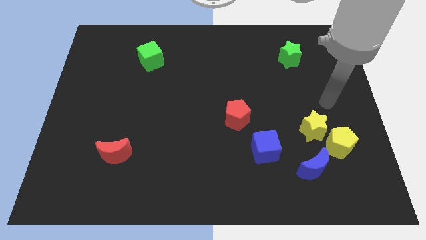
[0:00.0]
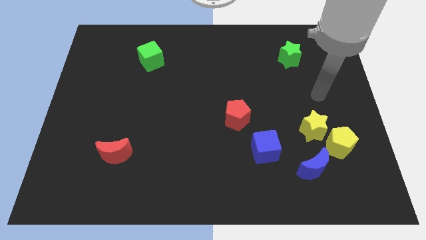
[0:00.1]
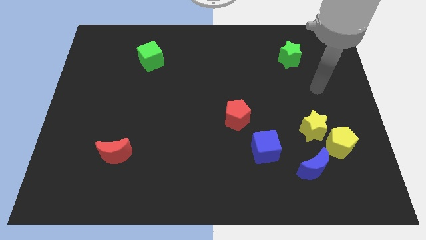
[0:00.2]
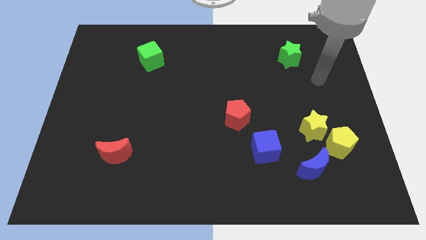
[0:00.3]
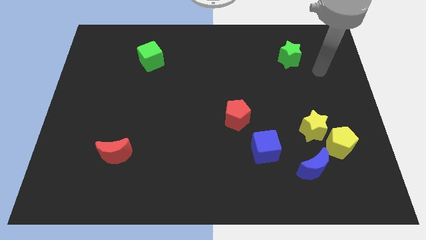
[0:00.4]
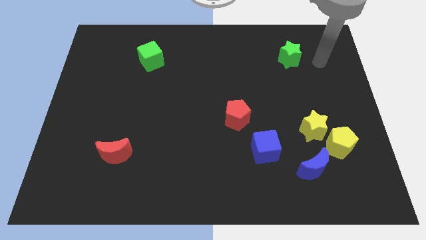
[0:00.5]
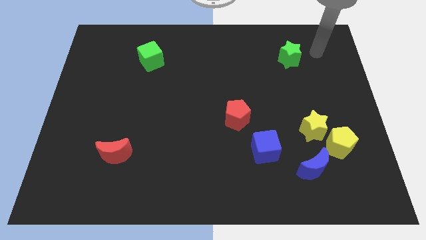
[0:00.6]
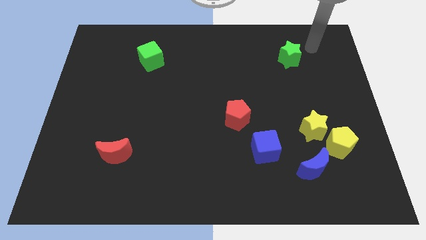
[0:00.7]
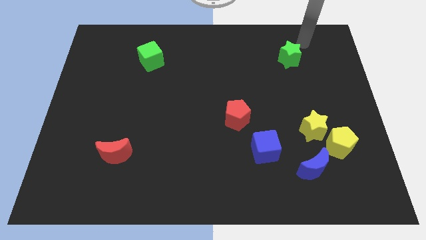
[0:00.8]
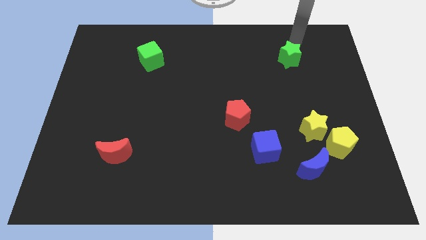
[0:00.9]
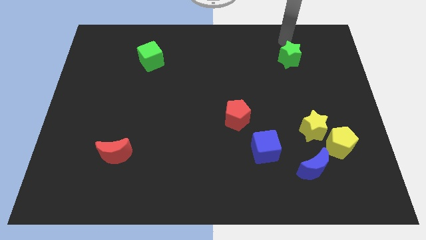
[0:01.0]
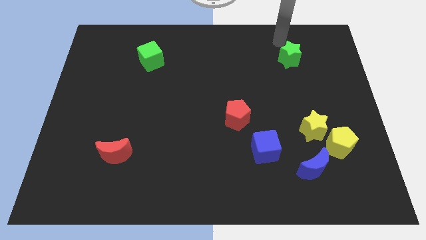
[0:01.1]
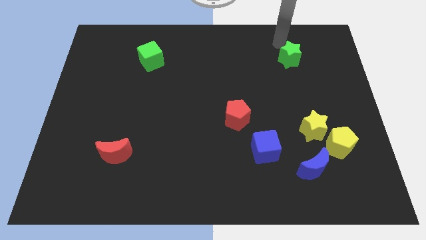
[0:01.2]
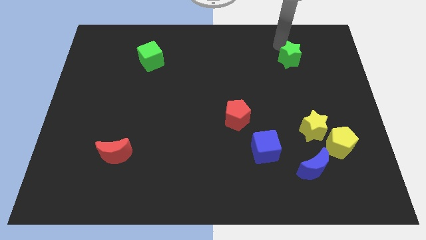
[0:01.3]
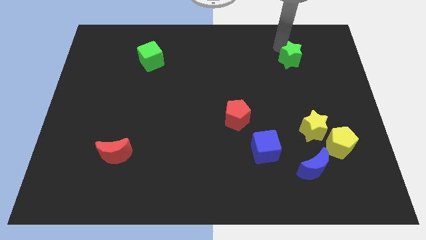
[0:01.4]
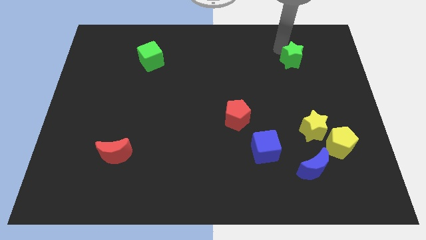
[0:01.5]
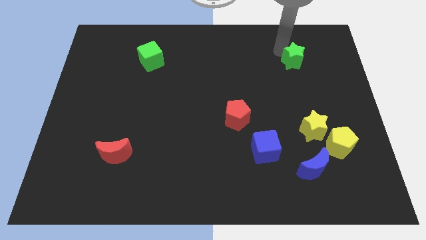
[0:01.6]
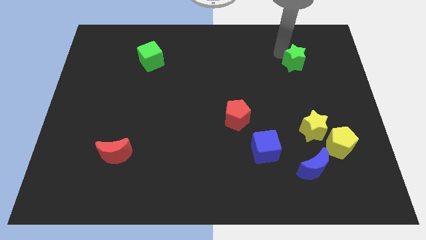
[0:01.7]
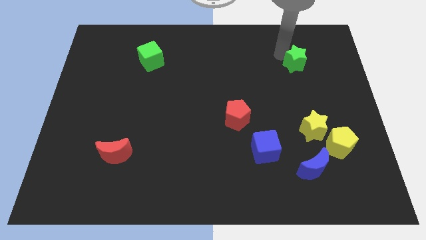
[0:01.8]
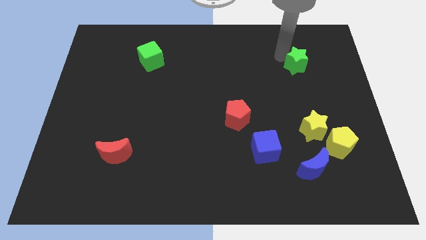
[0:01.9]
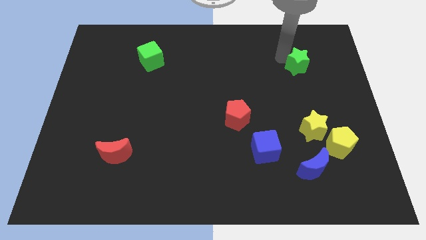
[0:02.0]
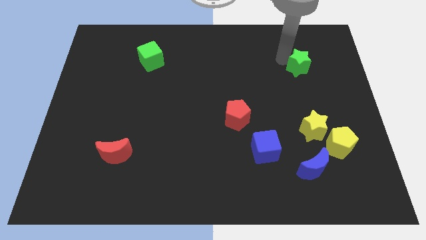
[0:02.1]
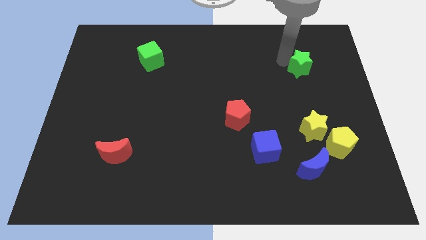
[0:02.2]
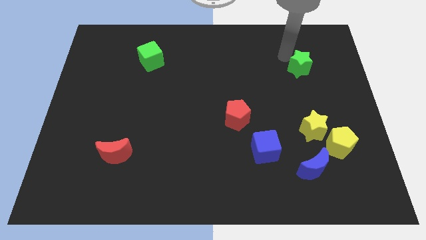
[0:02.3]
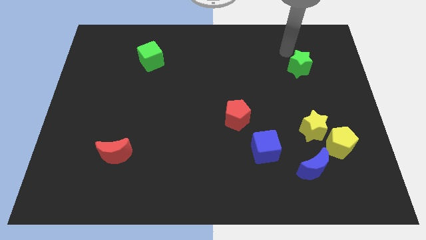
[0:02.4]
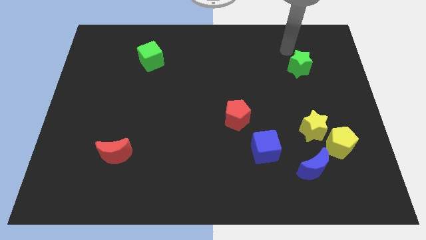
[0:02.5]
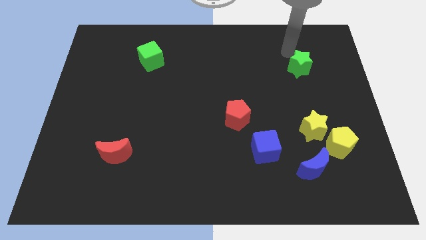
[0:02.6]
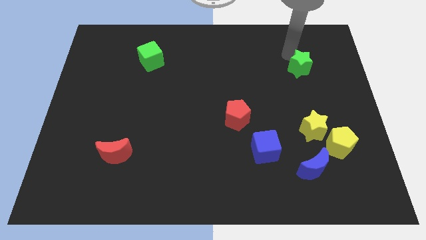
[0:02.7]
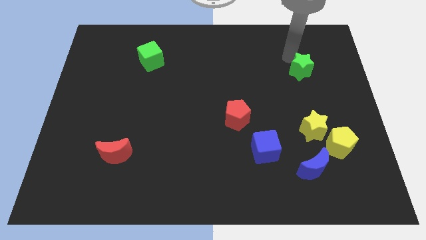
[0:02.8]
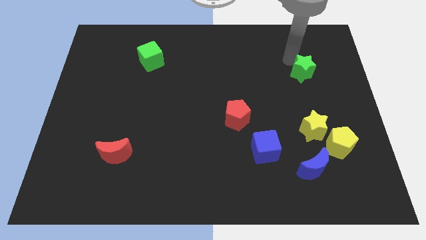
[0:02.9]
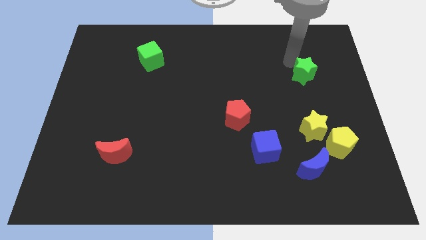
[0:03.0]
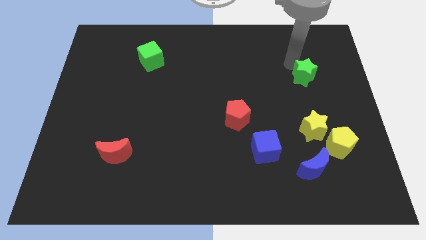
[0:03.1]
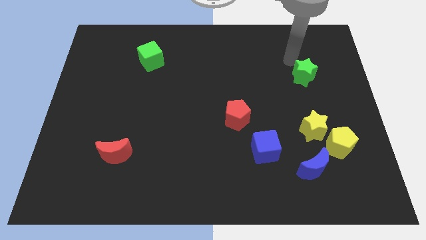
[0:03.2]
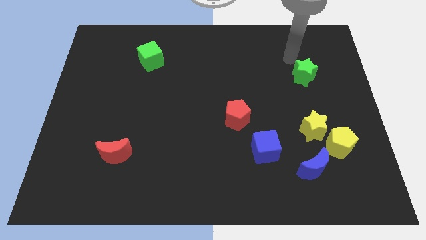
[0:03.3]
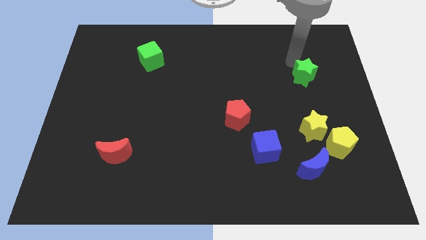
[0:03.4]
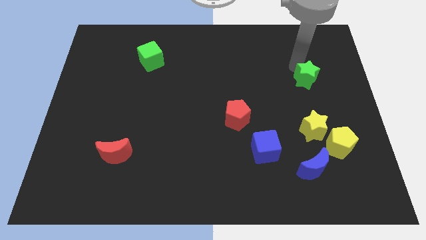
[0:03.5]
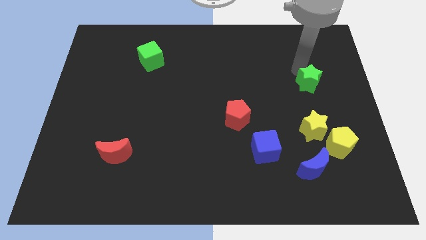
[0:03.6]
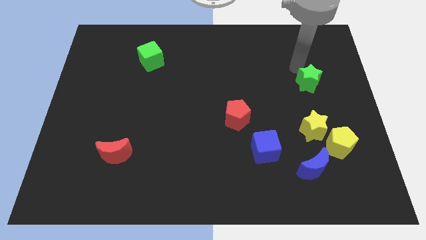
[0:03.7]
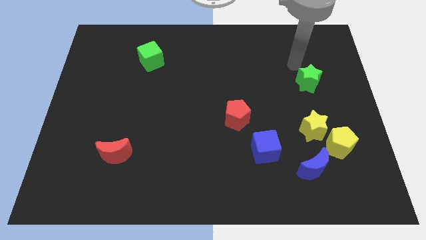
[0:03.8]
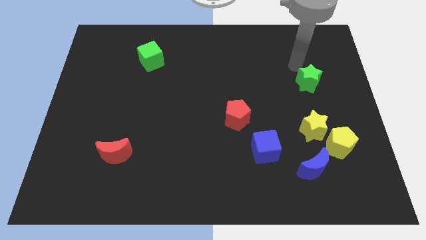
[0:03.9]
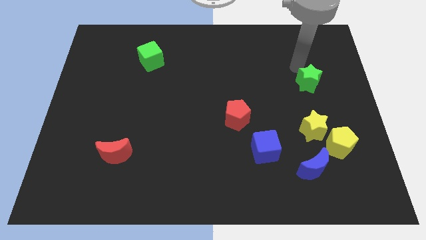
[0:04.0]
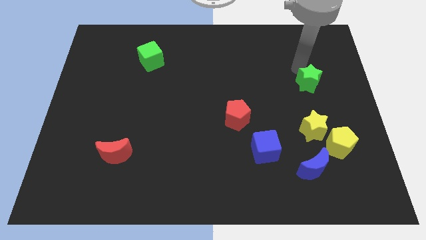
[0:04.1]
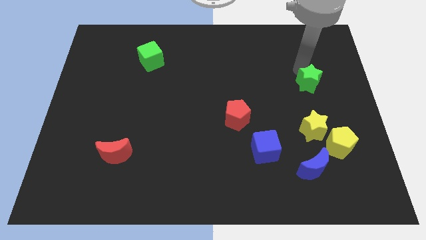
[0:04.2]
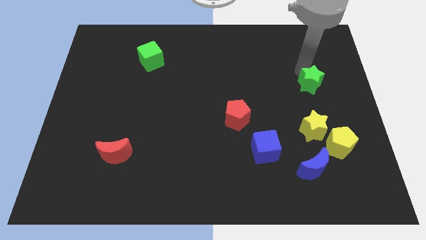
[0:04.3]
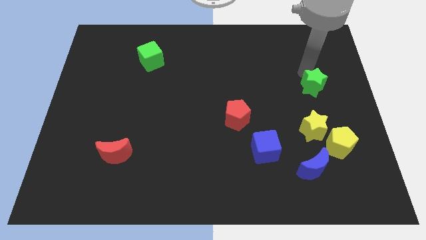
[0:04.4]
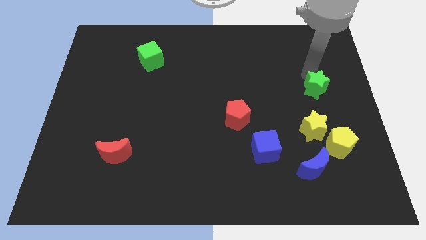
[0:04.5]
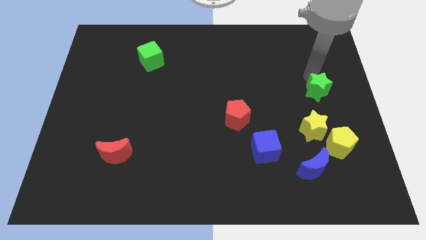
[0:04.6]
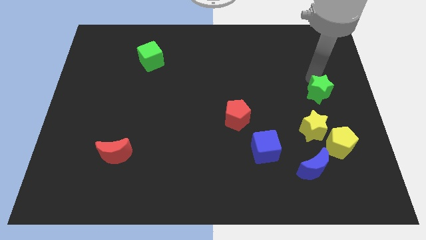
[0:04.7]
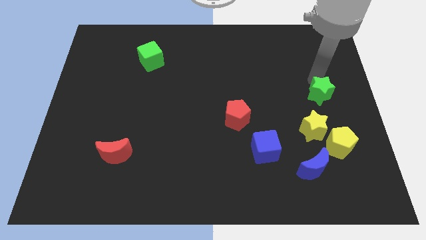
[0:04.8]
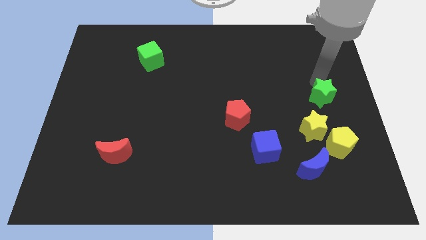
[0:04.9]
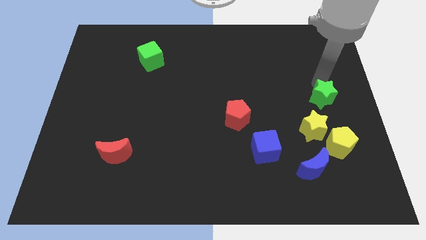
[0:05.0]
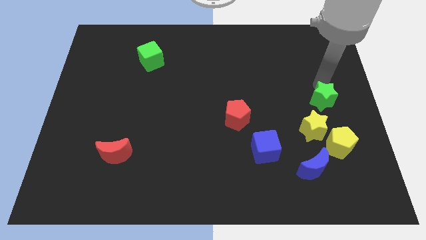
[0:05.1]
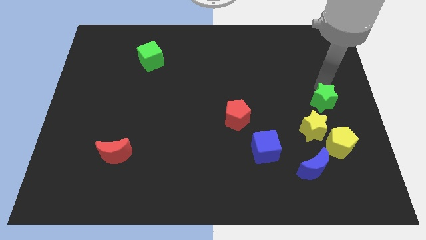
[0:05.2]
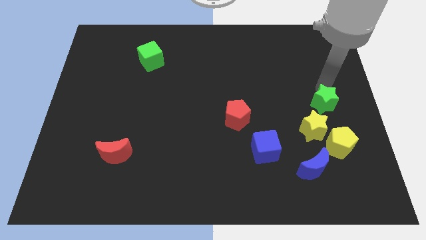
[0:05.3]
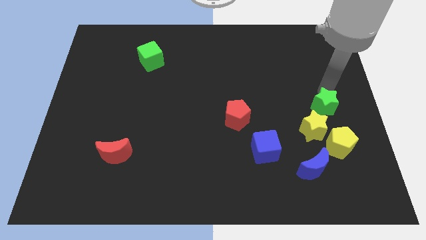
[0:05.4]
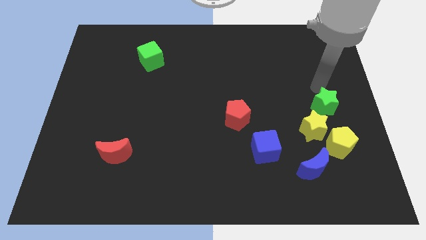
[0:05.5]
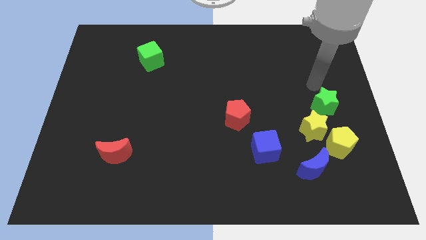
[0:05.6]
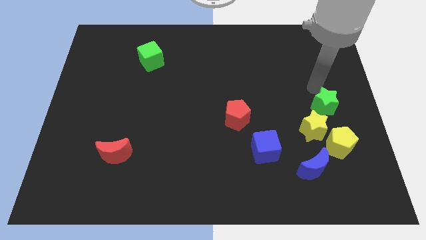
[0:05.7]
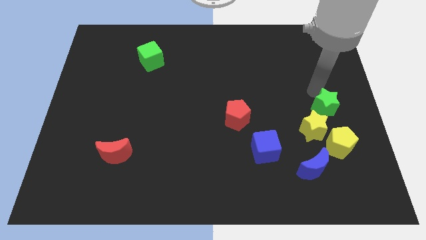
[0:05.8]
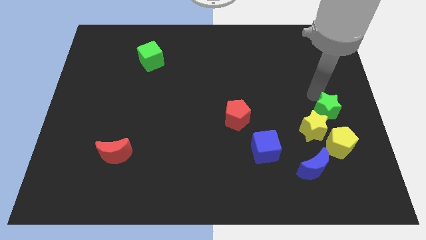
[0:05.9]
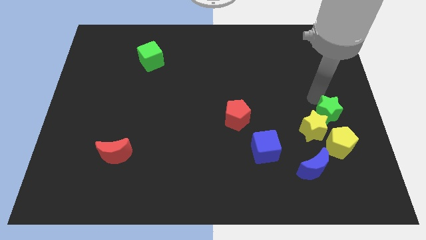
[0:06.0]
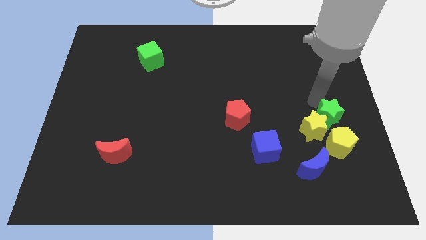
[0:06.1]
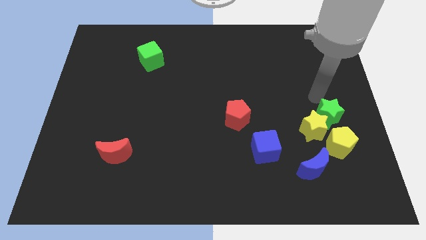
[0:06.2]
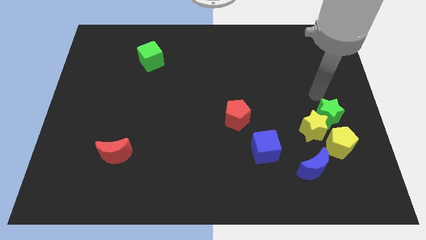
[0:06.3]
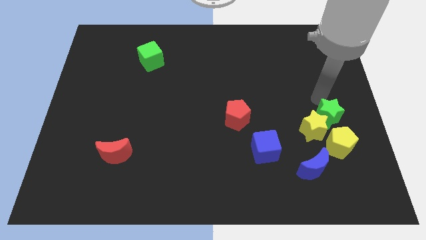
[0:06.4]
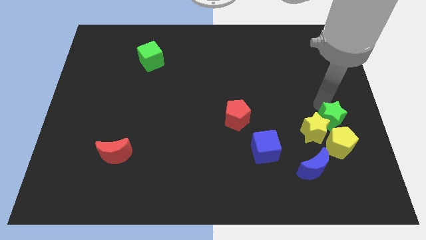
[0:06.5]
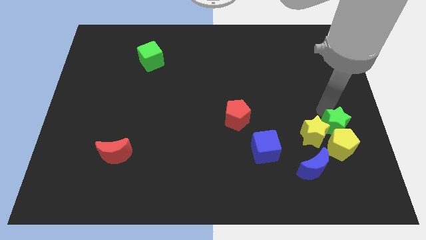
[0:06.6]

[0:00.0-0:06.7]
push the green star close to the yellow pentagon

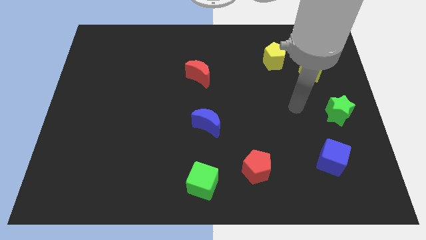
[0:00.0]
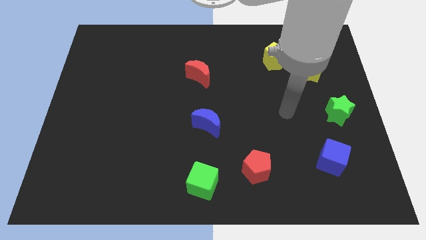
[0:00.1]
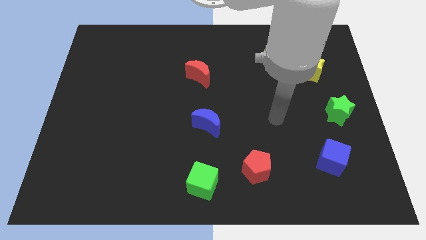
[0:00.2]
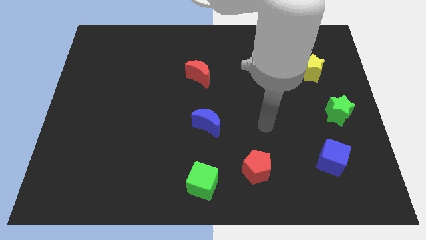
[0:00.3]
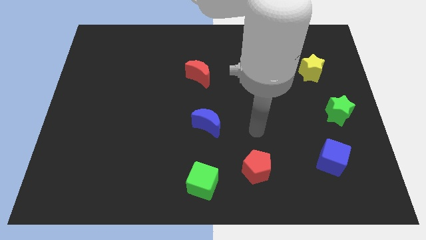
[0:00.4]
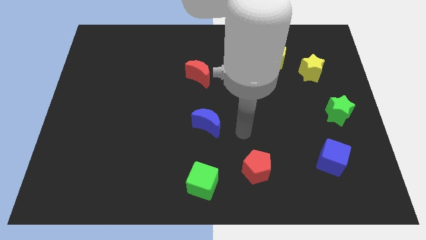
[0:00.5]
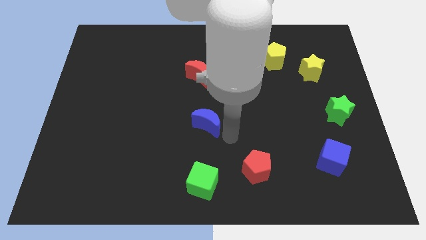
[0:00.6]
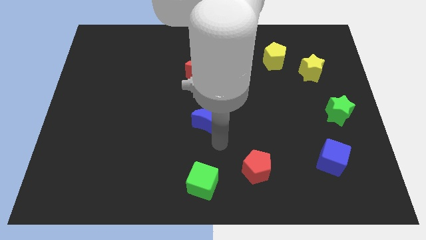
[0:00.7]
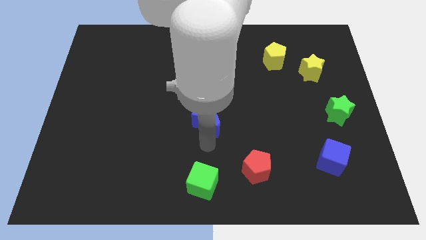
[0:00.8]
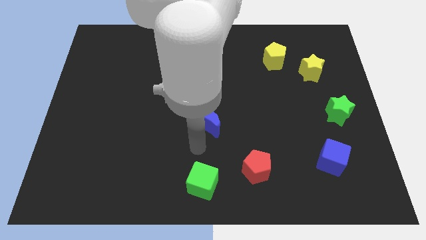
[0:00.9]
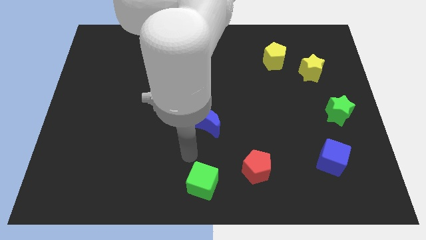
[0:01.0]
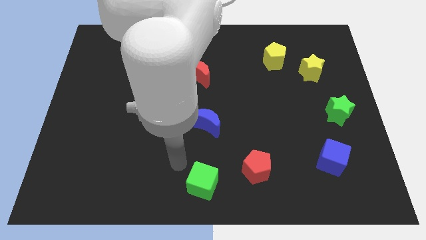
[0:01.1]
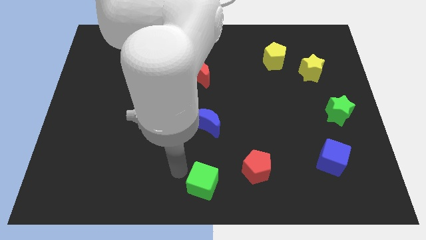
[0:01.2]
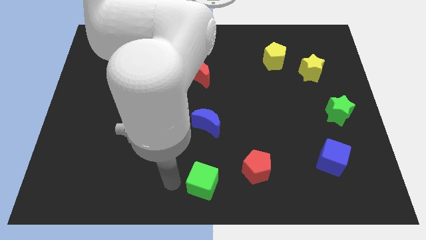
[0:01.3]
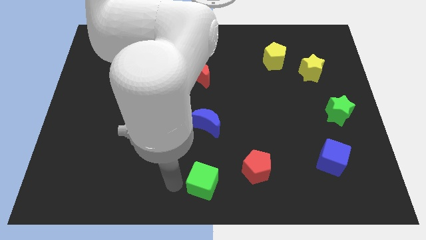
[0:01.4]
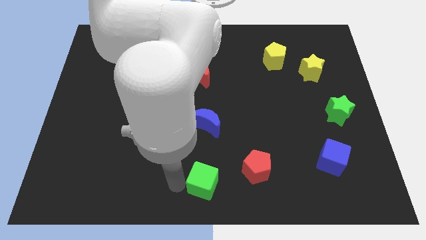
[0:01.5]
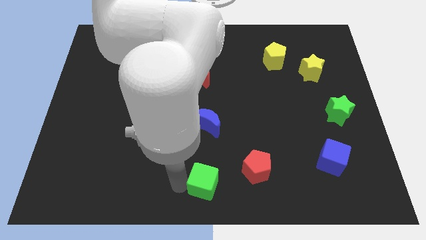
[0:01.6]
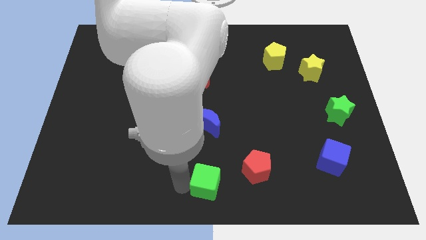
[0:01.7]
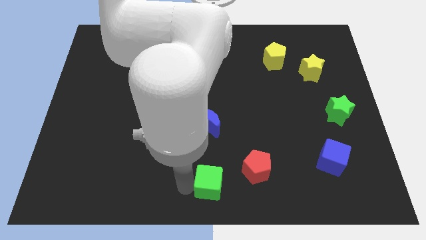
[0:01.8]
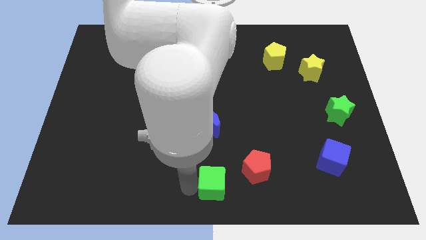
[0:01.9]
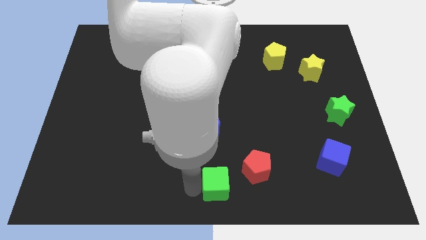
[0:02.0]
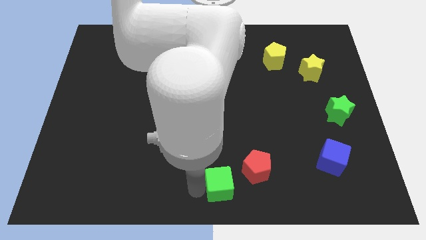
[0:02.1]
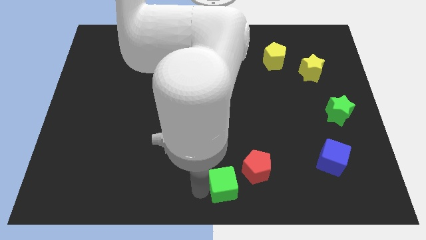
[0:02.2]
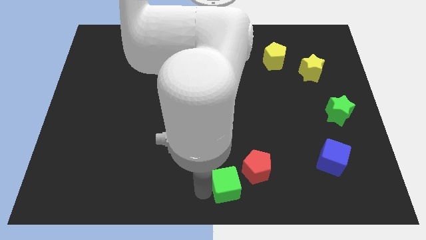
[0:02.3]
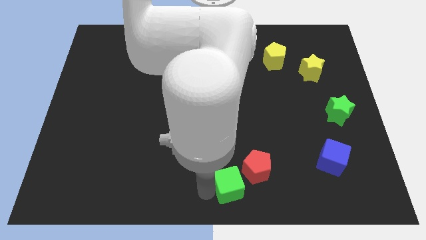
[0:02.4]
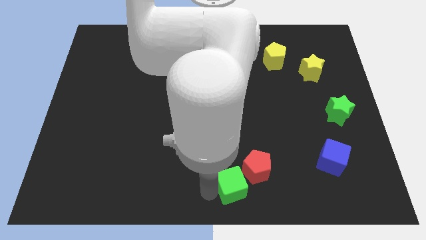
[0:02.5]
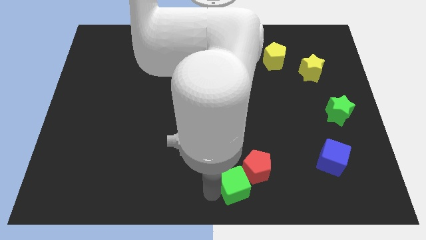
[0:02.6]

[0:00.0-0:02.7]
move the green cube next to the red pentagon
